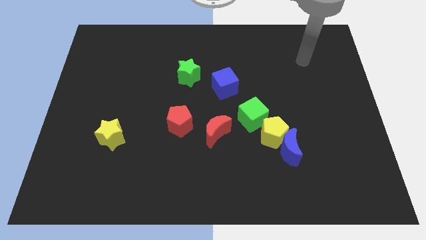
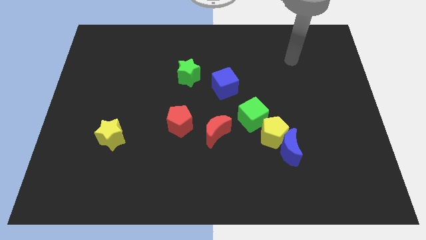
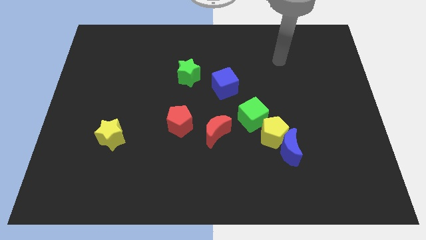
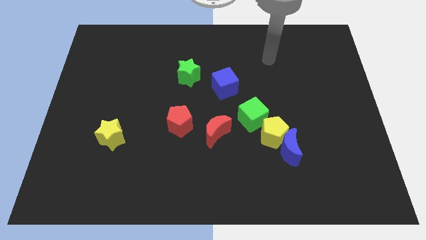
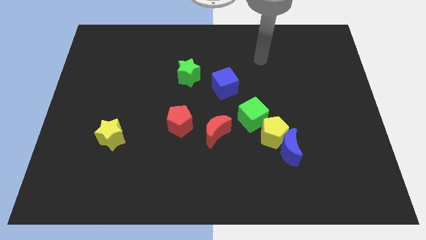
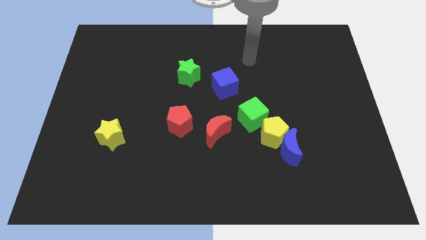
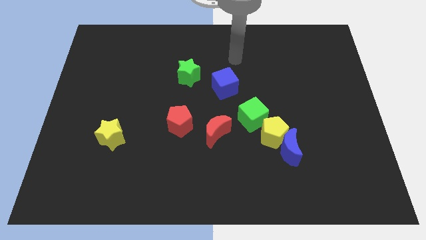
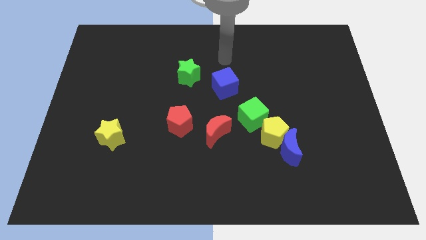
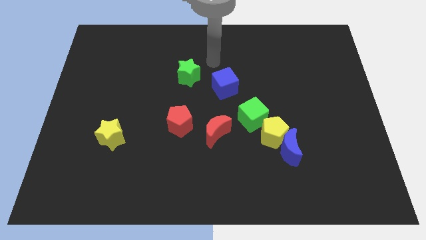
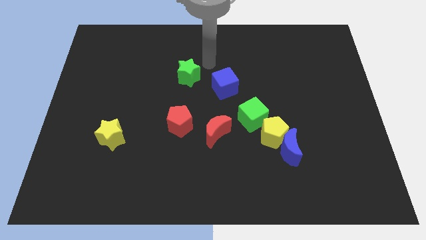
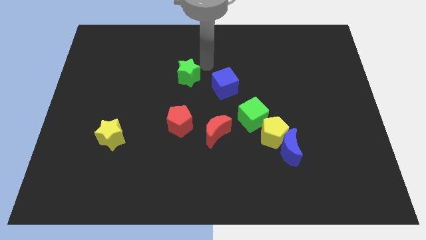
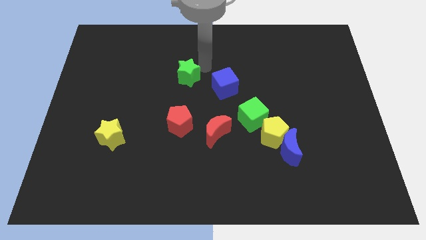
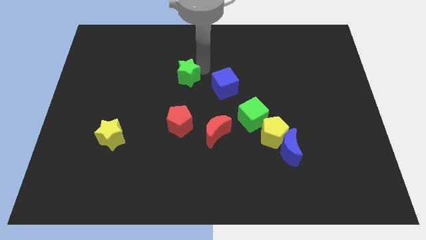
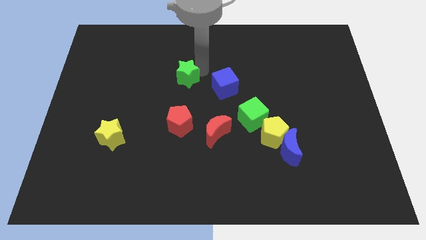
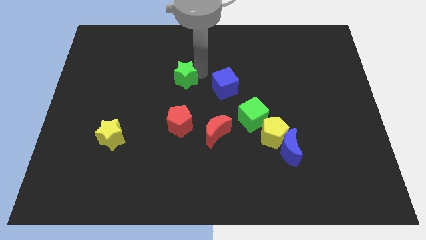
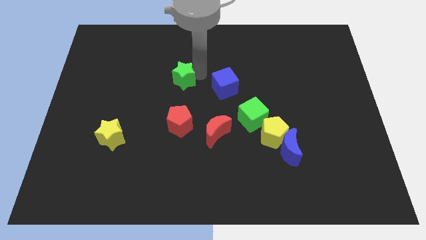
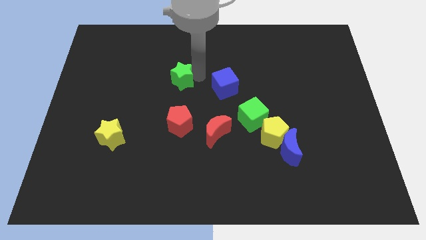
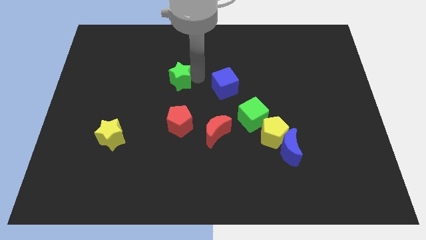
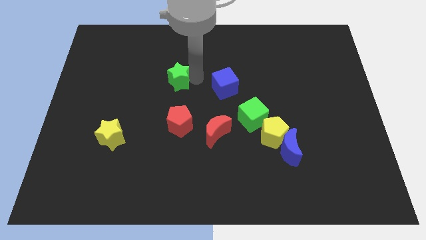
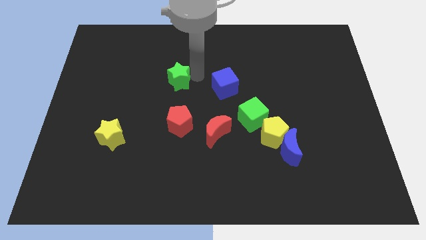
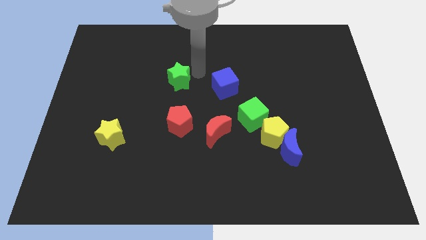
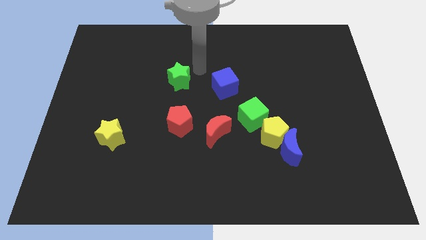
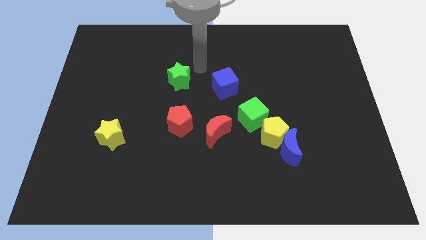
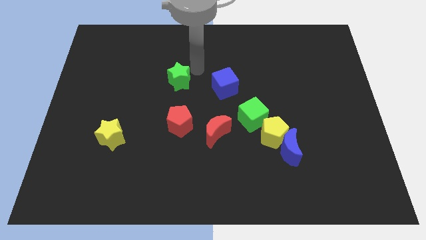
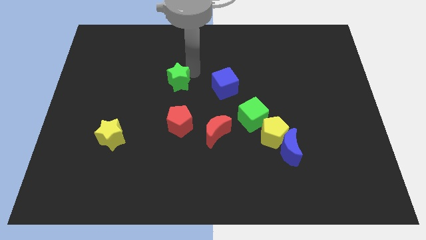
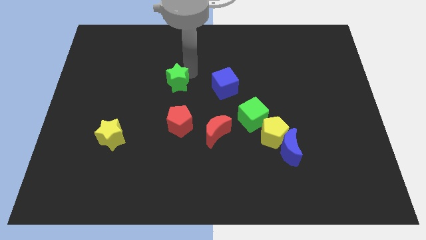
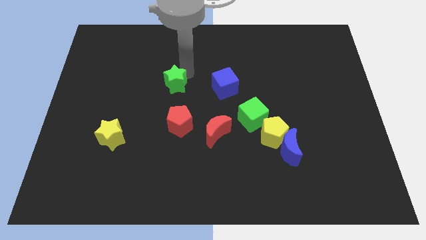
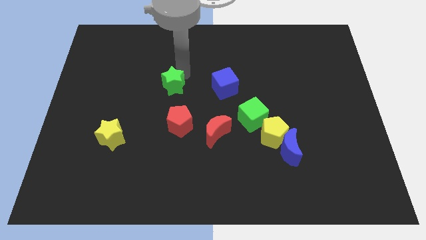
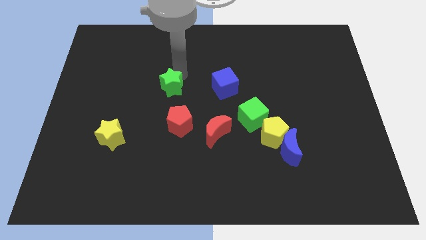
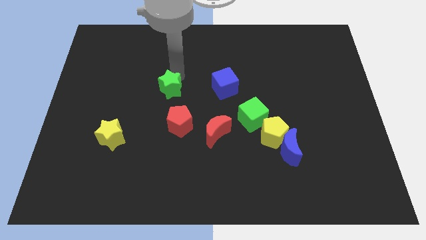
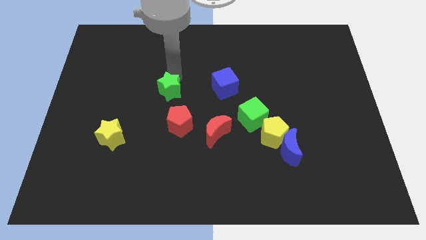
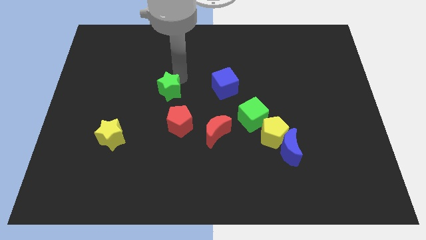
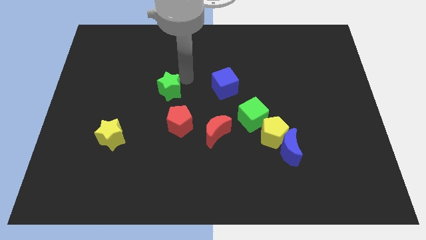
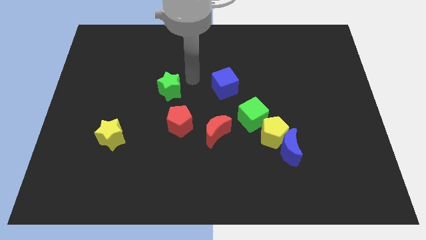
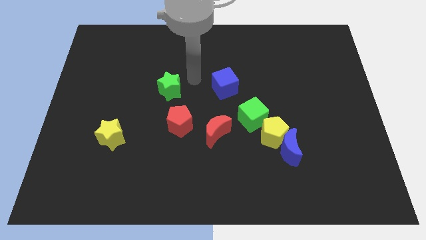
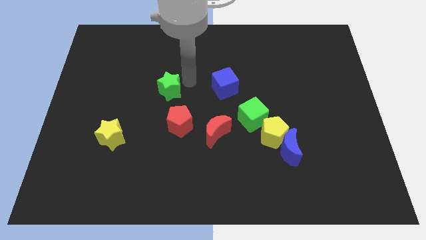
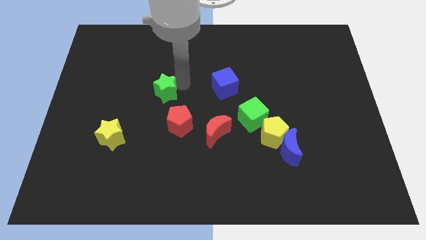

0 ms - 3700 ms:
push the green star downwards and then left somewhat

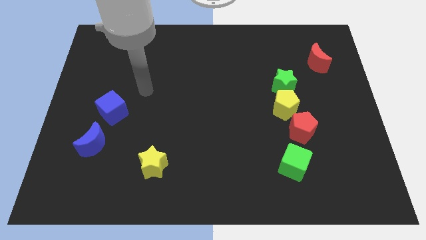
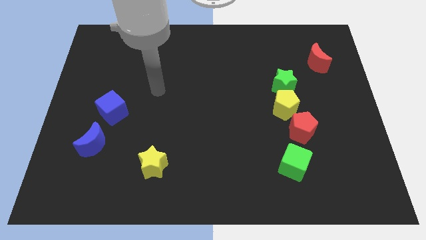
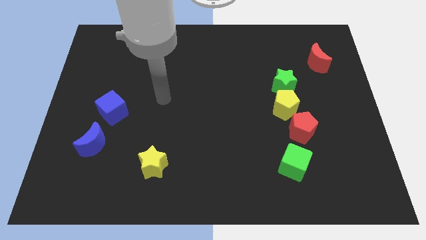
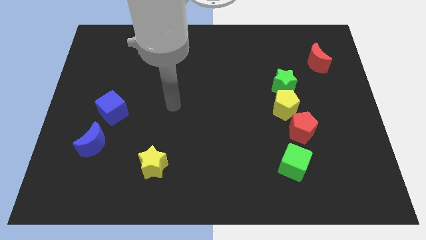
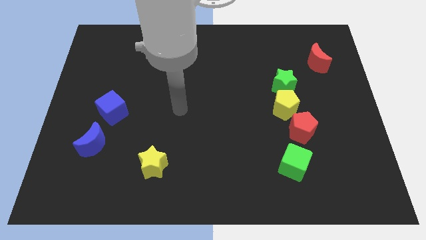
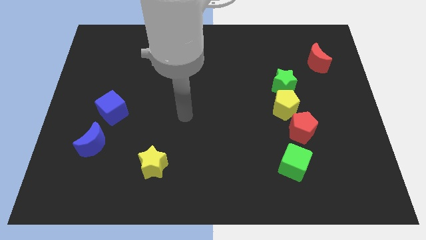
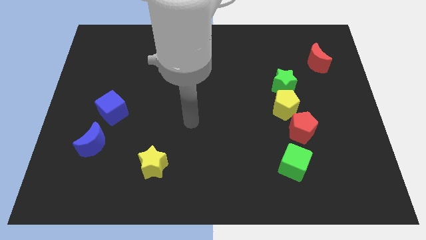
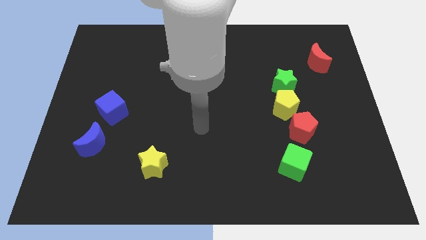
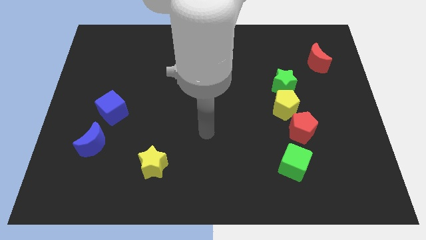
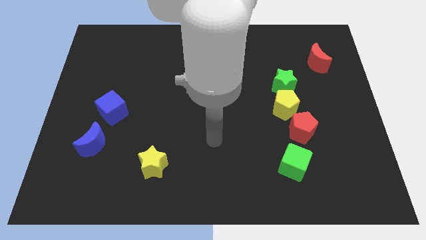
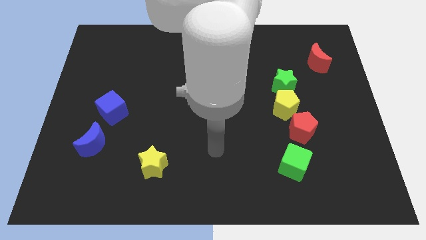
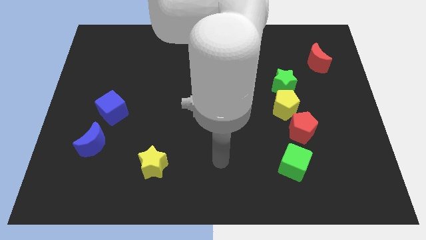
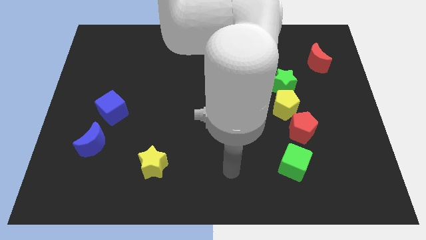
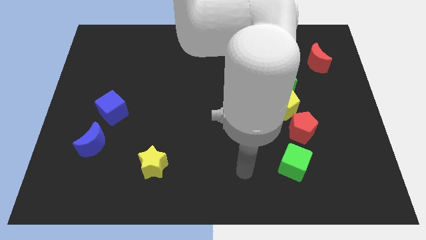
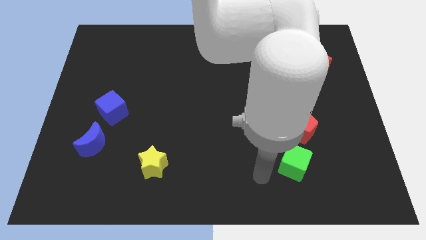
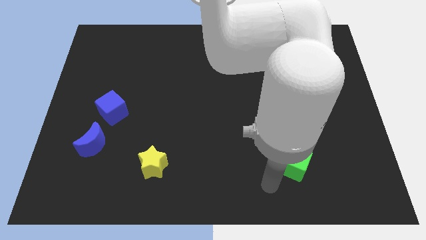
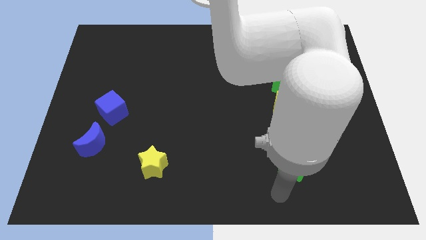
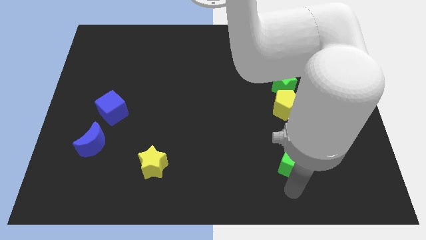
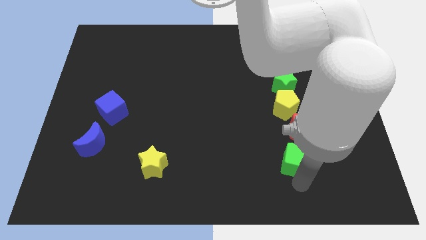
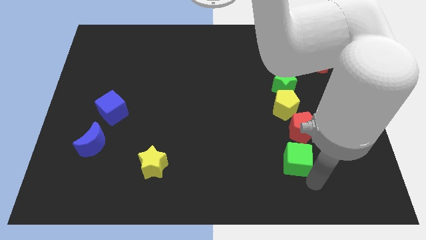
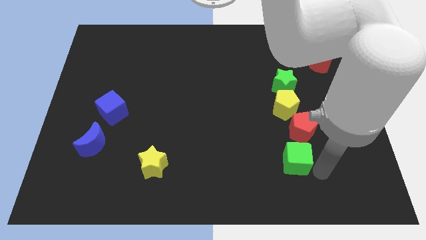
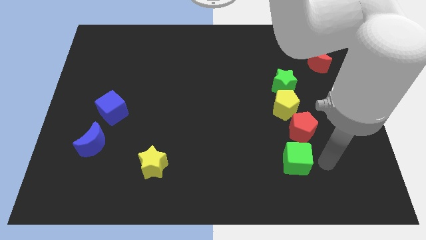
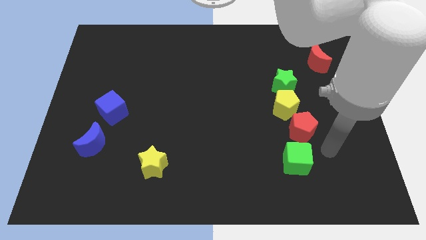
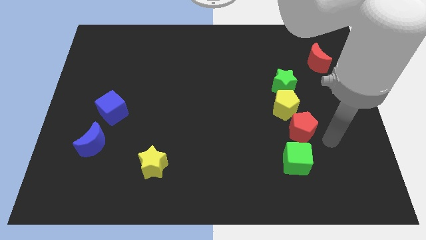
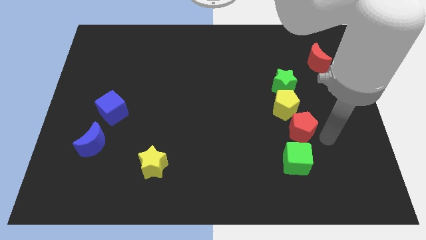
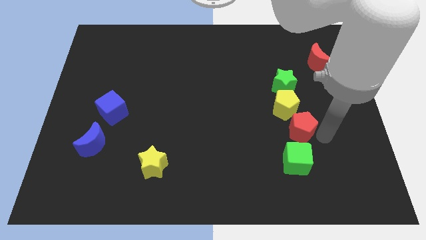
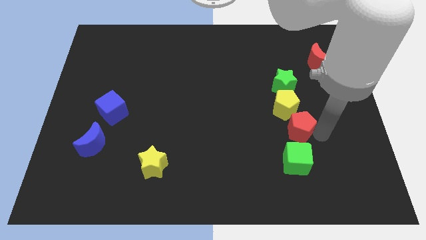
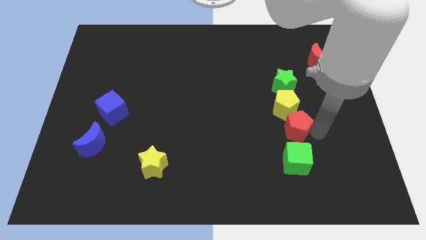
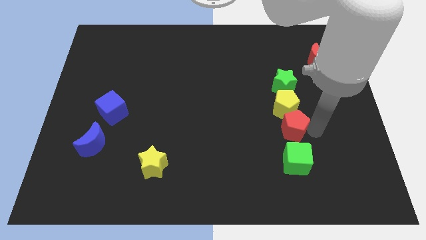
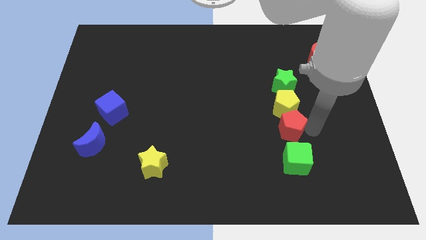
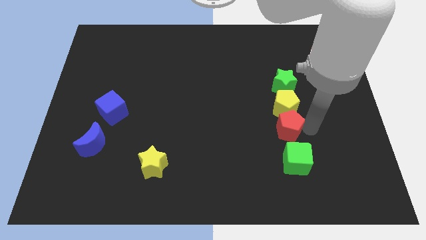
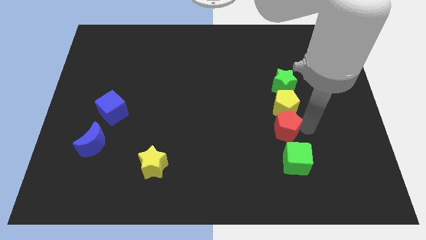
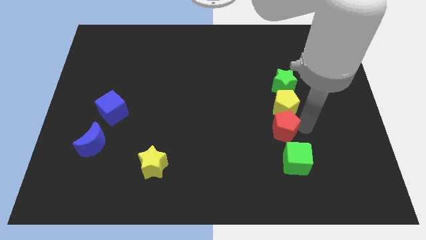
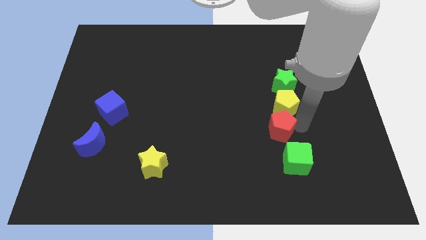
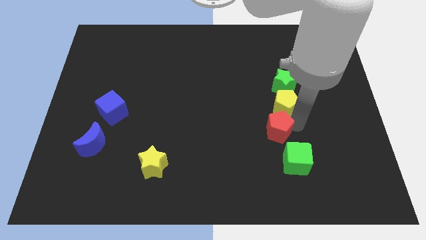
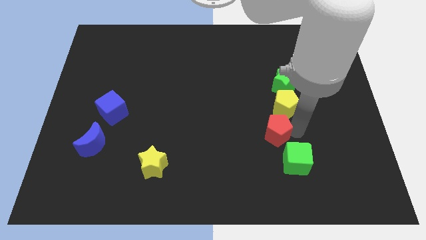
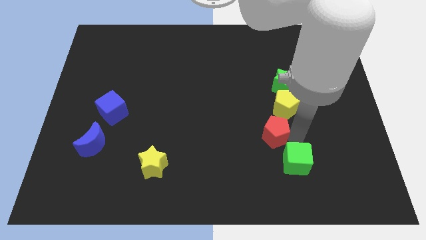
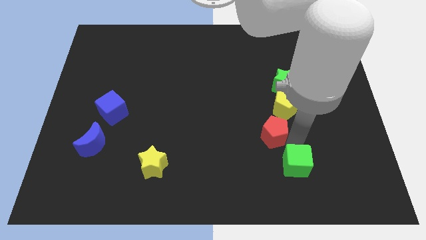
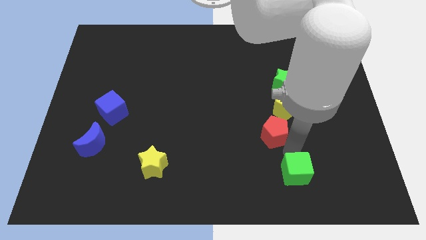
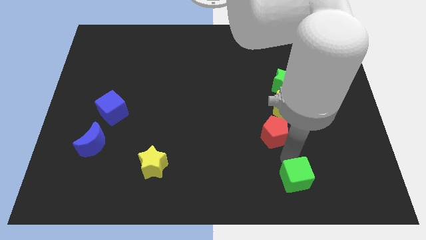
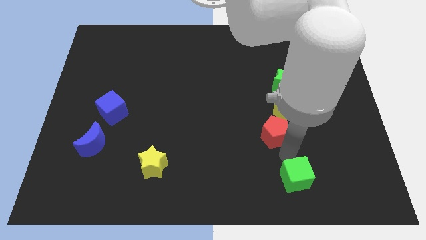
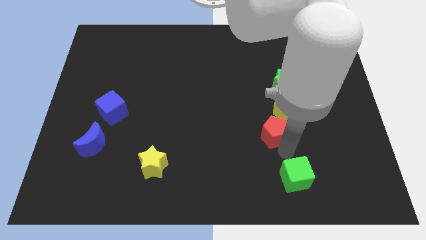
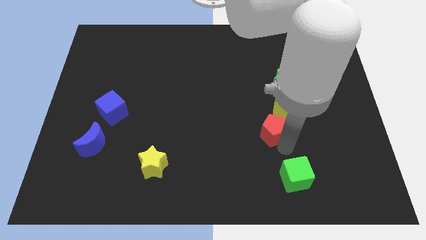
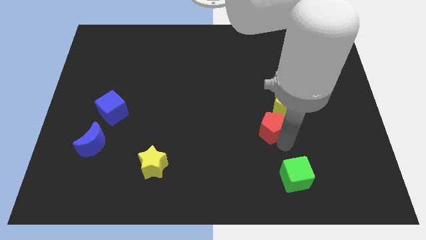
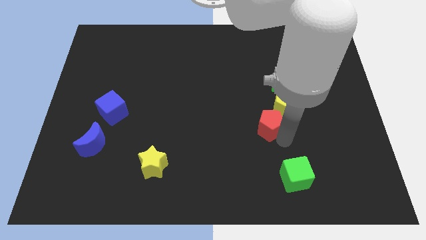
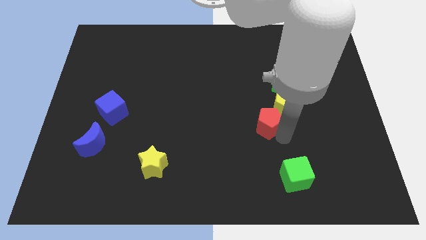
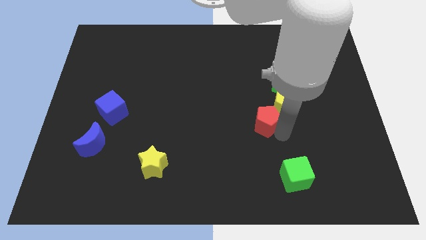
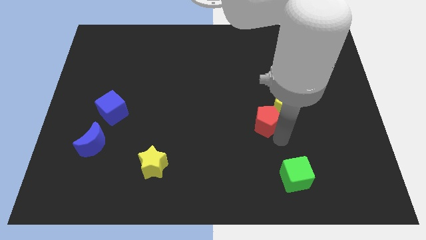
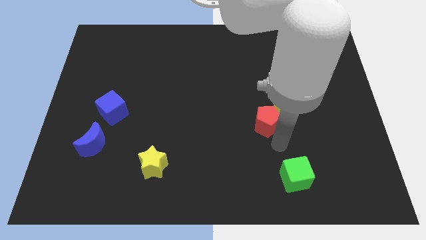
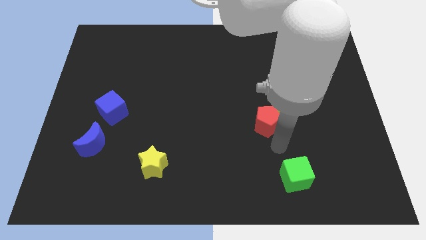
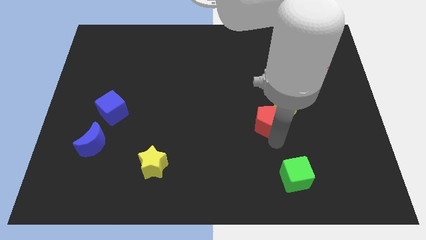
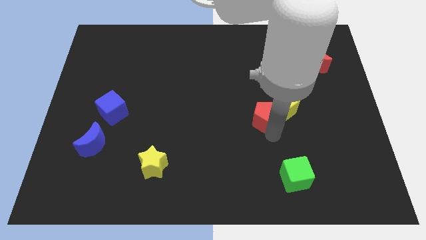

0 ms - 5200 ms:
push the red pentagon up and then left somewhat
